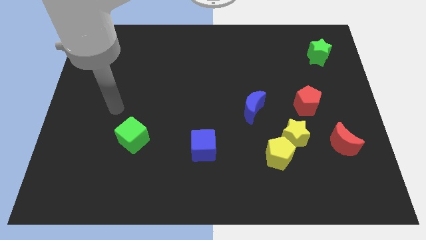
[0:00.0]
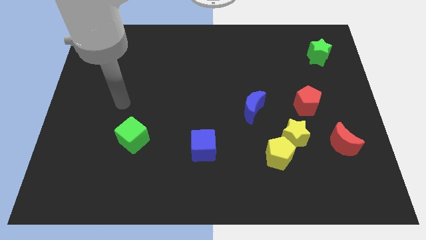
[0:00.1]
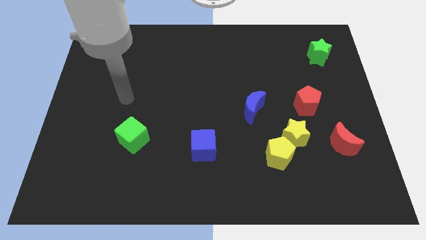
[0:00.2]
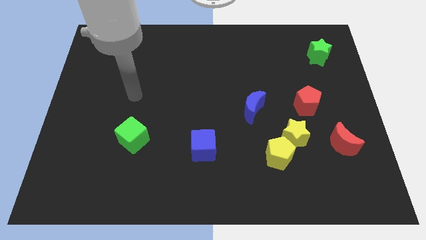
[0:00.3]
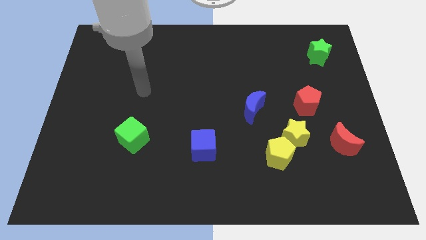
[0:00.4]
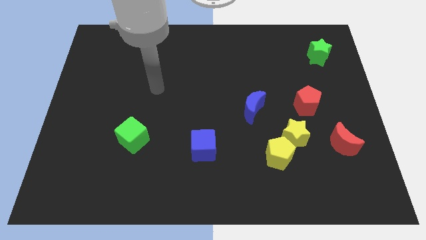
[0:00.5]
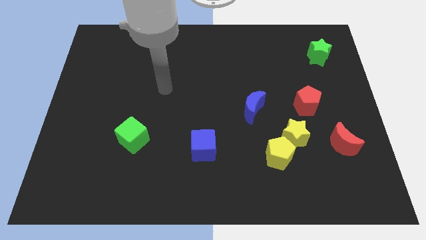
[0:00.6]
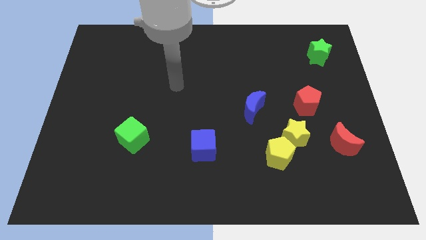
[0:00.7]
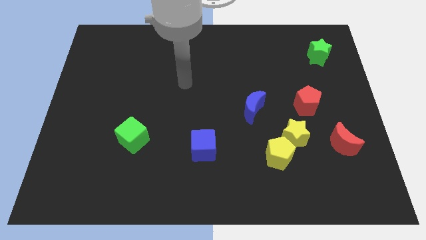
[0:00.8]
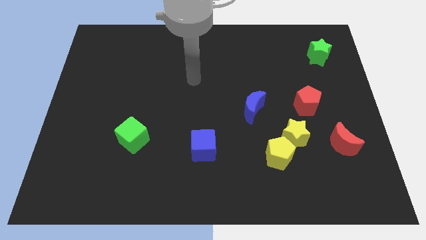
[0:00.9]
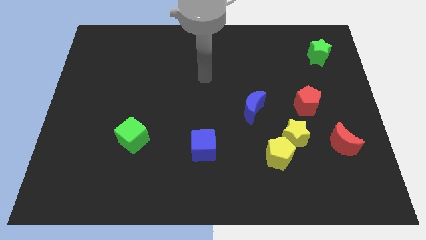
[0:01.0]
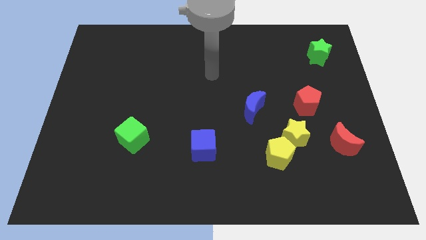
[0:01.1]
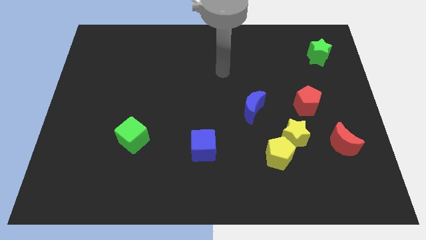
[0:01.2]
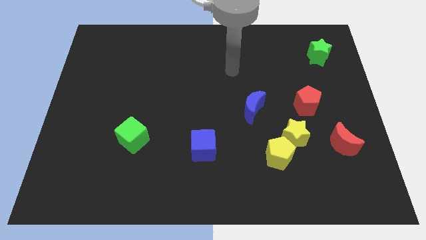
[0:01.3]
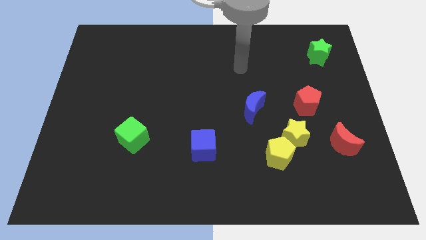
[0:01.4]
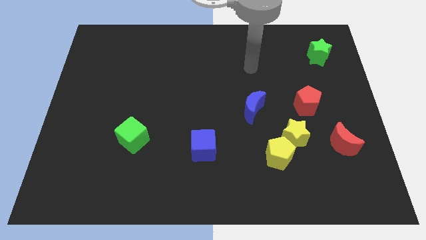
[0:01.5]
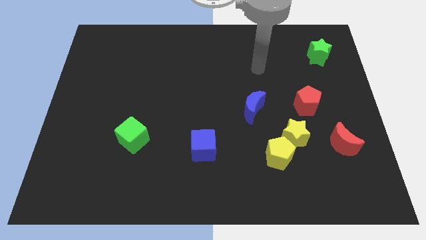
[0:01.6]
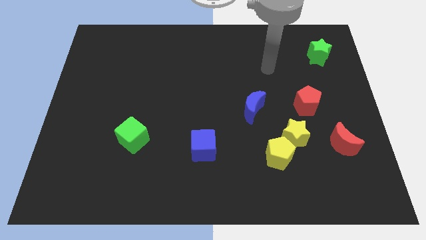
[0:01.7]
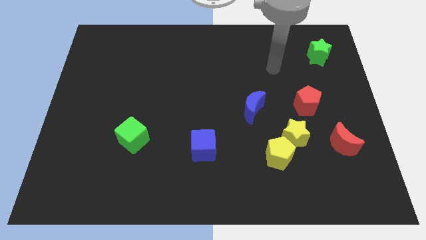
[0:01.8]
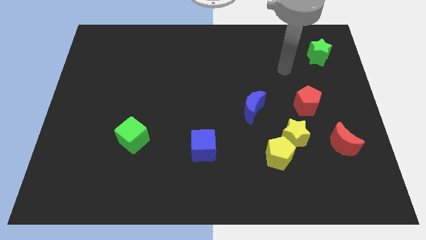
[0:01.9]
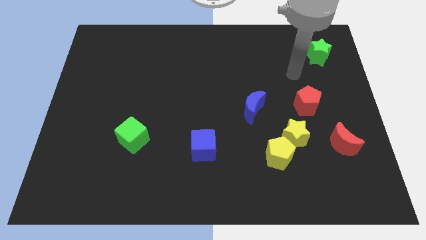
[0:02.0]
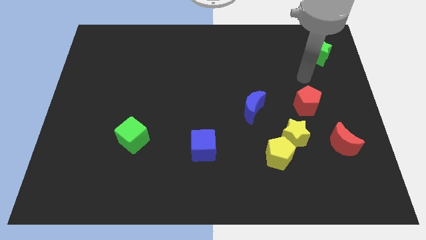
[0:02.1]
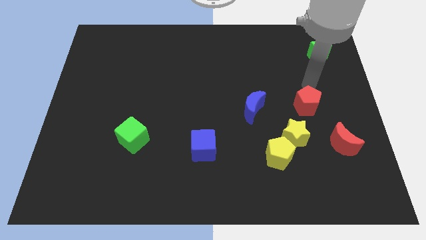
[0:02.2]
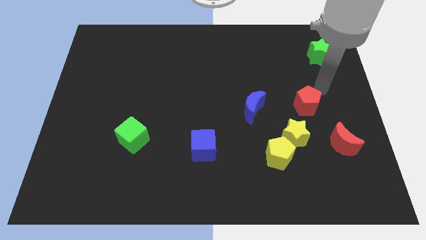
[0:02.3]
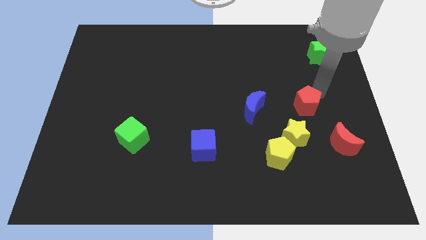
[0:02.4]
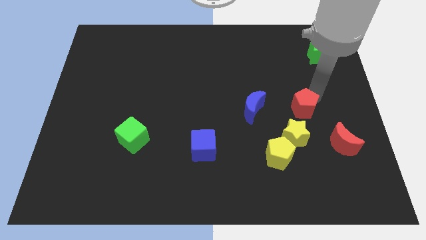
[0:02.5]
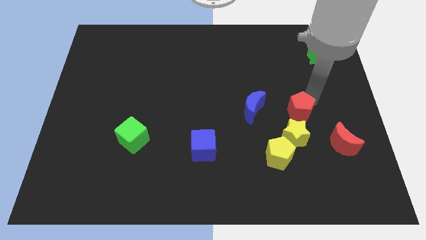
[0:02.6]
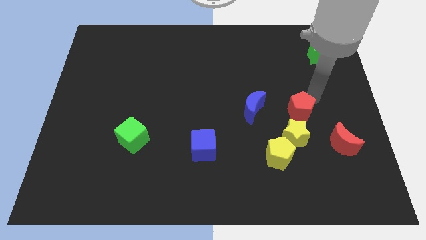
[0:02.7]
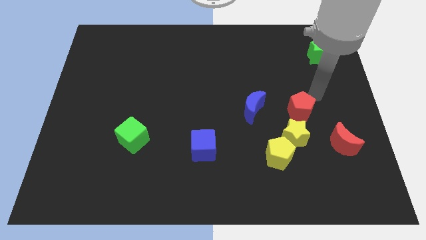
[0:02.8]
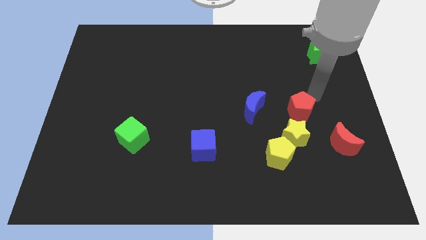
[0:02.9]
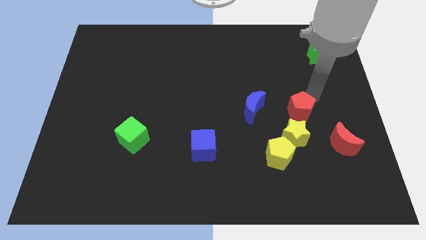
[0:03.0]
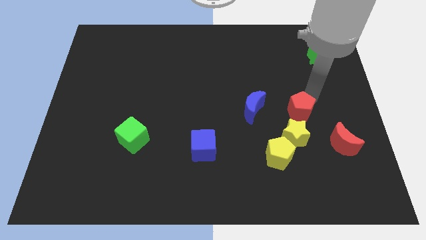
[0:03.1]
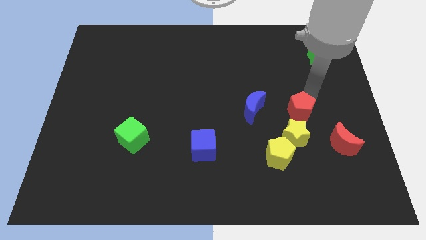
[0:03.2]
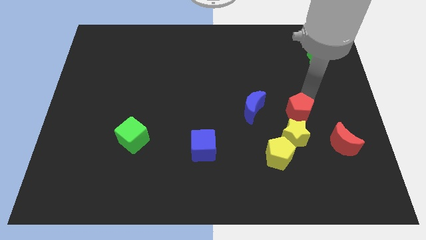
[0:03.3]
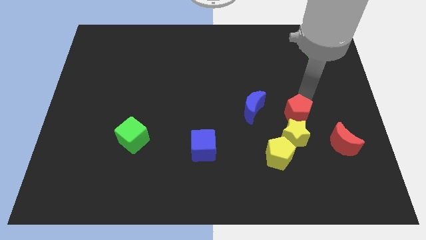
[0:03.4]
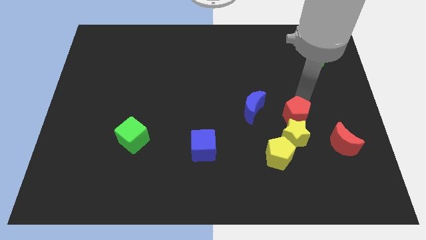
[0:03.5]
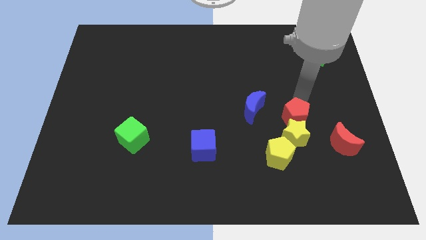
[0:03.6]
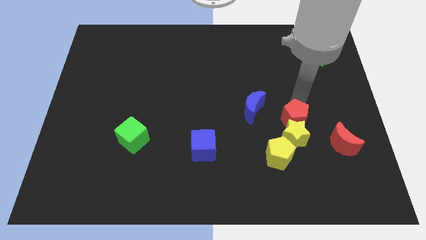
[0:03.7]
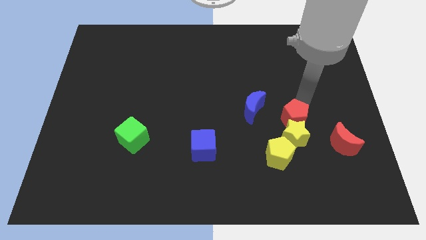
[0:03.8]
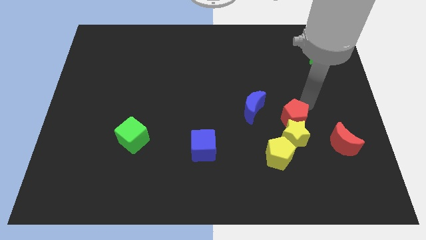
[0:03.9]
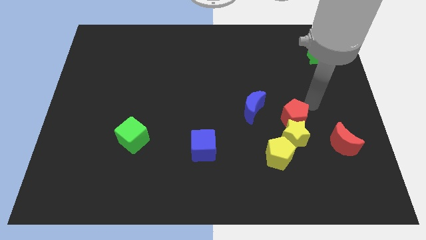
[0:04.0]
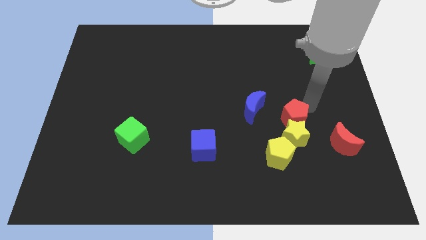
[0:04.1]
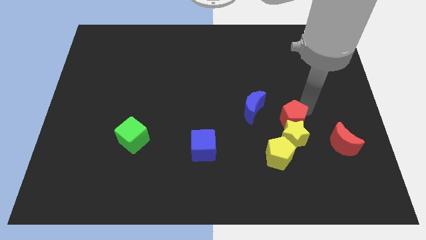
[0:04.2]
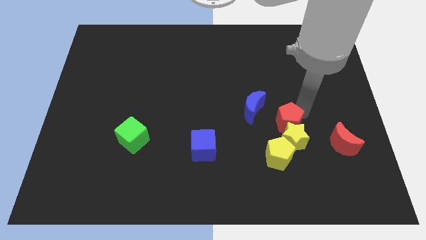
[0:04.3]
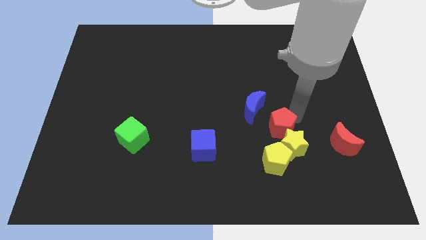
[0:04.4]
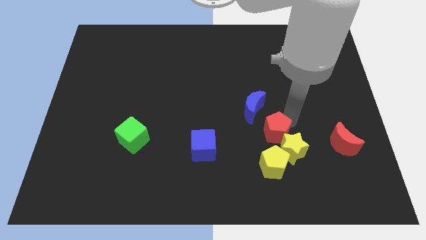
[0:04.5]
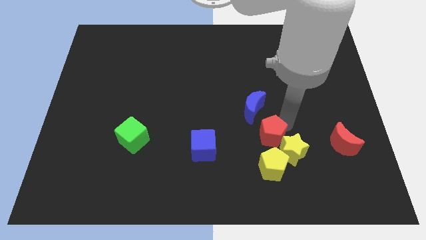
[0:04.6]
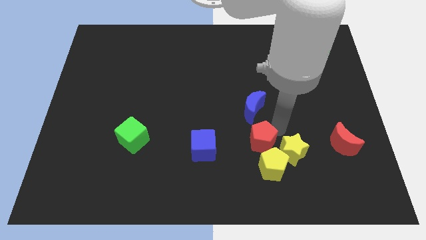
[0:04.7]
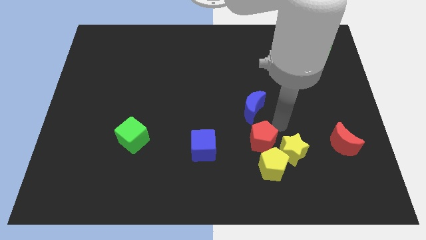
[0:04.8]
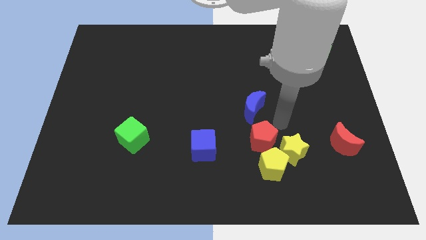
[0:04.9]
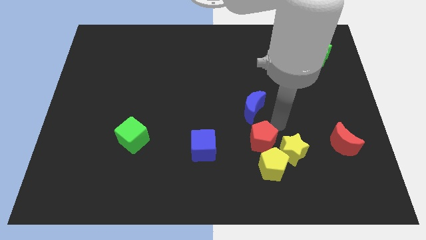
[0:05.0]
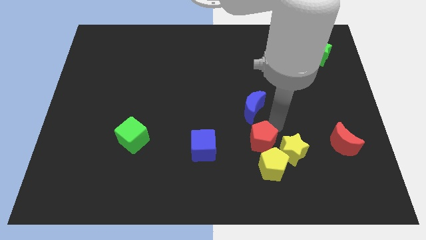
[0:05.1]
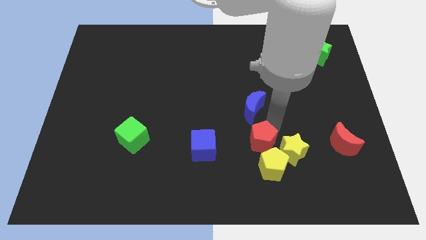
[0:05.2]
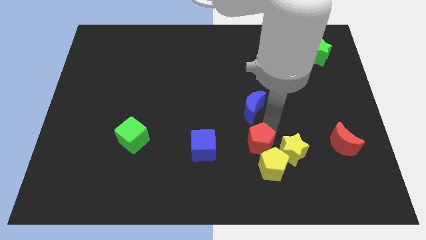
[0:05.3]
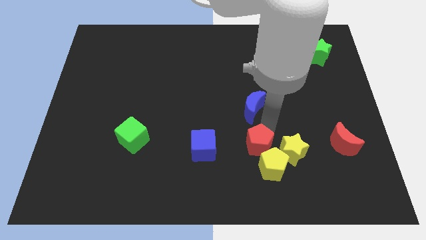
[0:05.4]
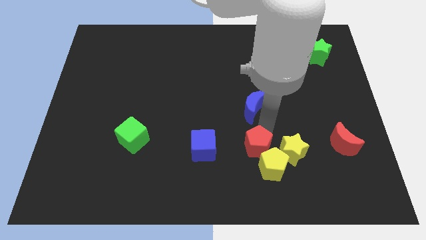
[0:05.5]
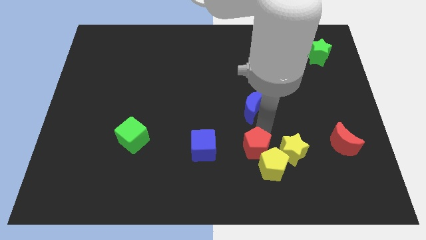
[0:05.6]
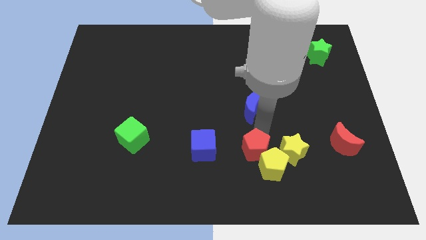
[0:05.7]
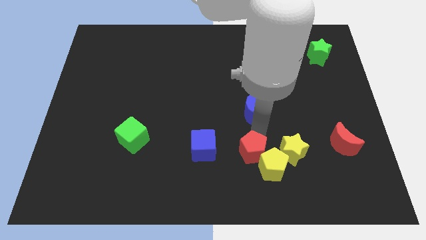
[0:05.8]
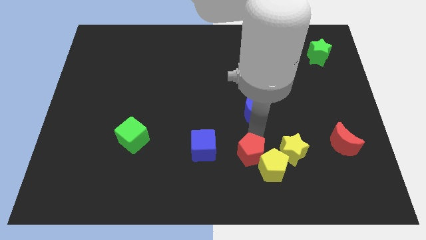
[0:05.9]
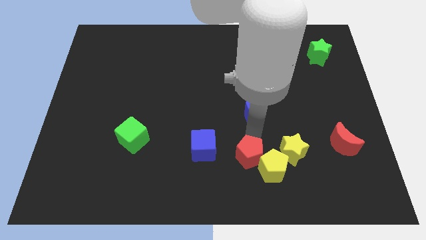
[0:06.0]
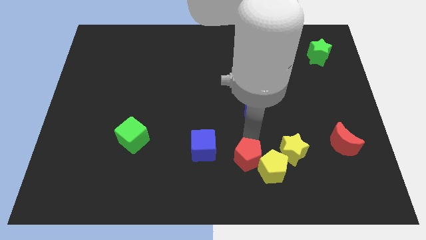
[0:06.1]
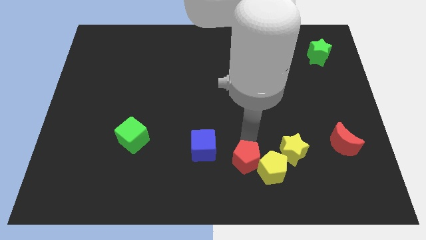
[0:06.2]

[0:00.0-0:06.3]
push the red pentagon to the bottom
